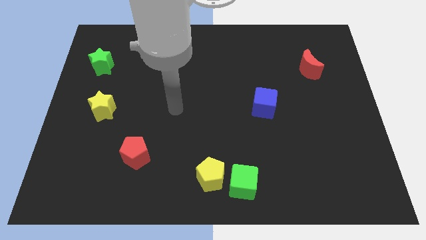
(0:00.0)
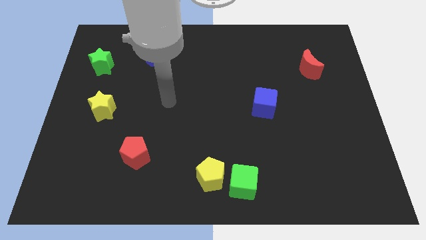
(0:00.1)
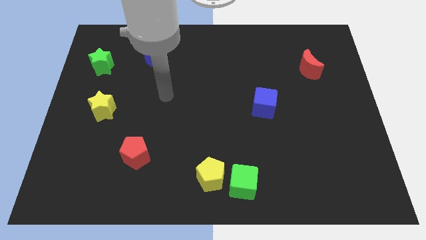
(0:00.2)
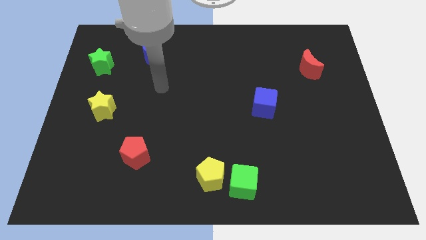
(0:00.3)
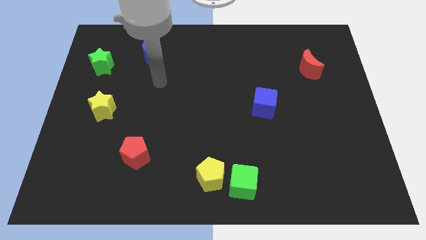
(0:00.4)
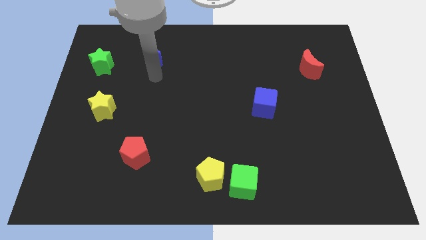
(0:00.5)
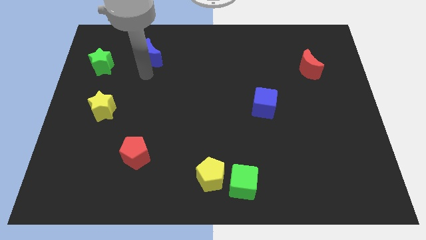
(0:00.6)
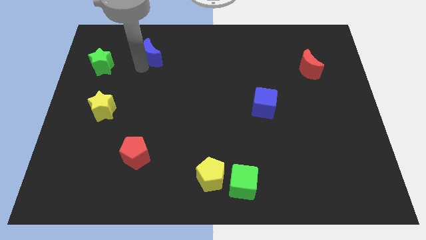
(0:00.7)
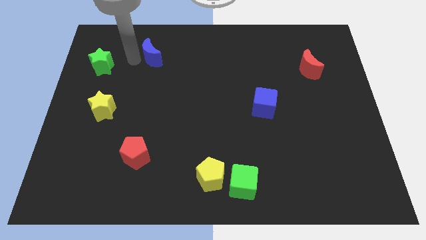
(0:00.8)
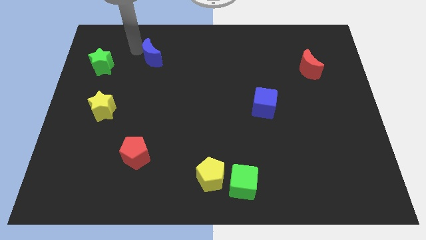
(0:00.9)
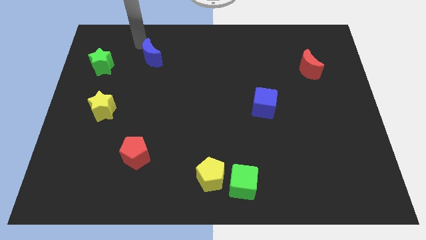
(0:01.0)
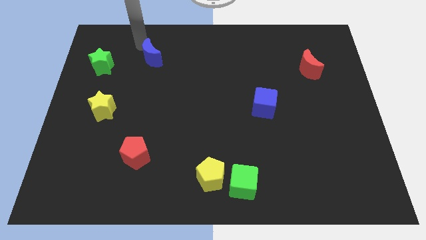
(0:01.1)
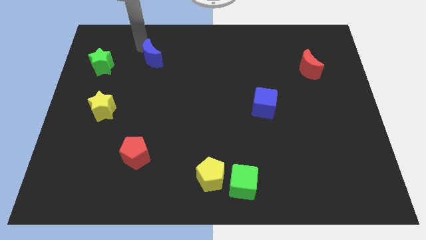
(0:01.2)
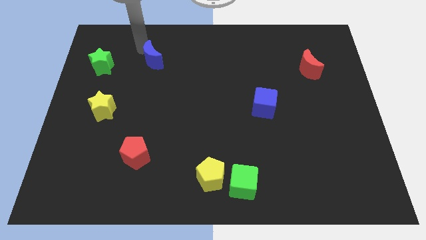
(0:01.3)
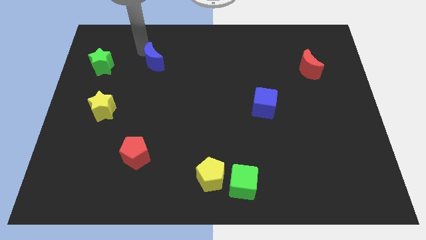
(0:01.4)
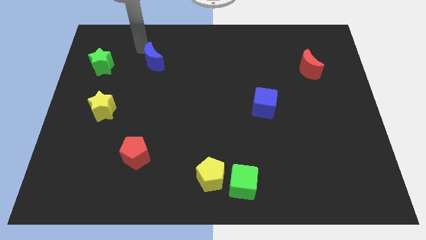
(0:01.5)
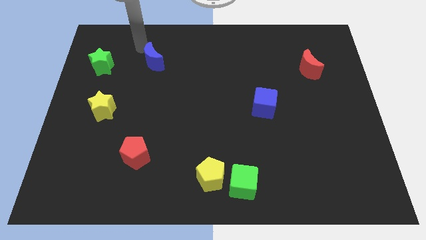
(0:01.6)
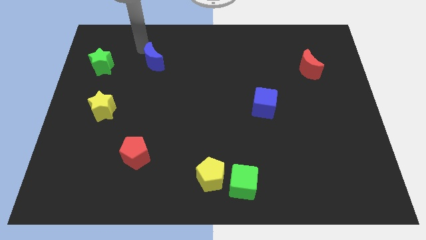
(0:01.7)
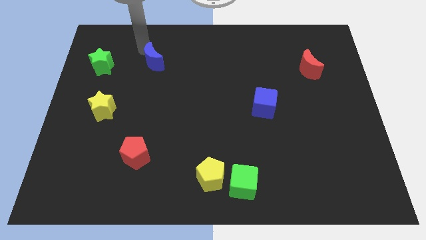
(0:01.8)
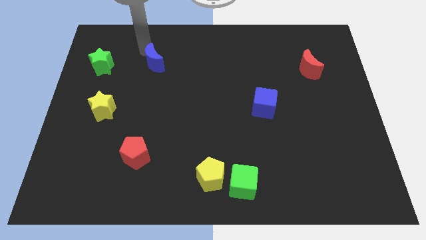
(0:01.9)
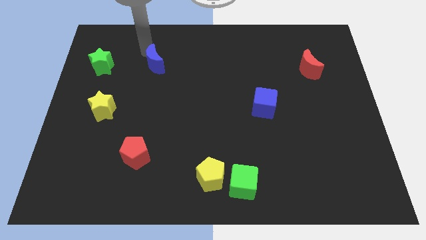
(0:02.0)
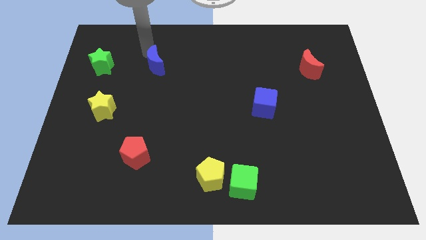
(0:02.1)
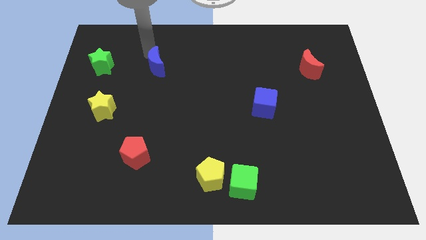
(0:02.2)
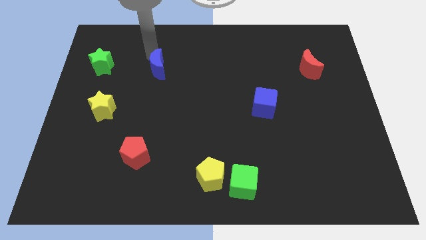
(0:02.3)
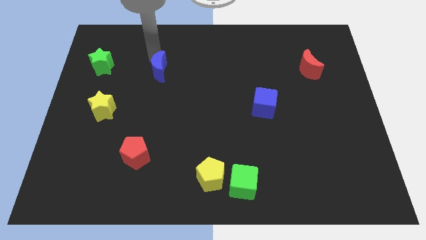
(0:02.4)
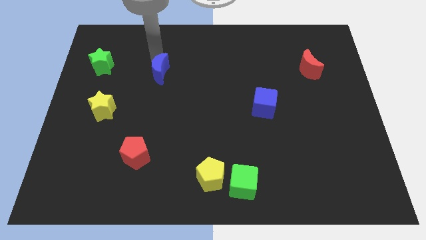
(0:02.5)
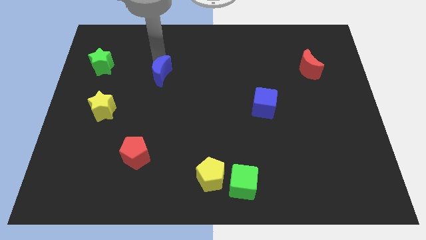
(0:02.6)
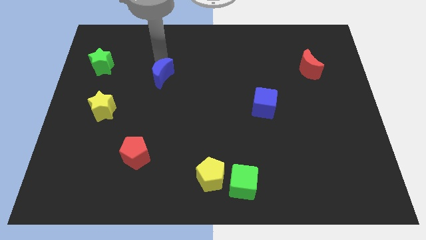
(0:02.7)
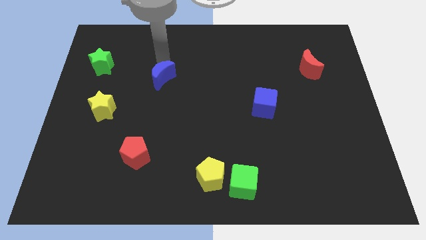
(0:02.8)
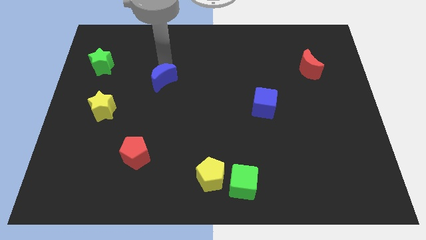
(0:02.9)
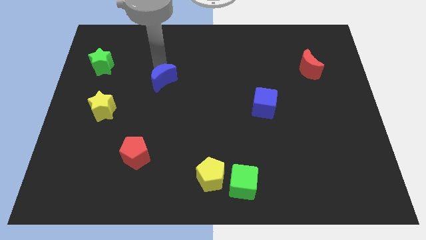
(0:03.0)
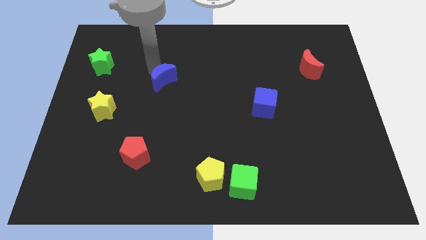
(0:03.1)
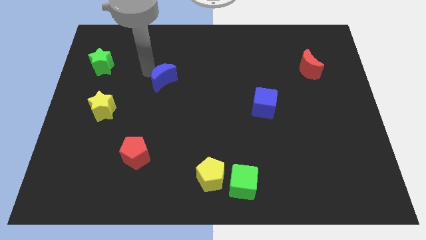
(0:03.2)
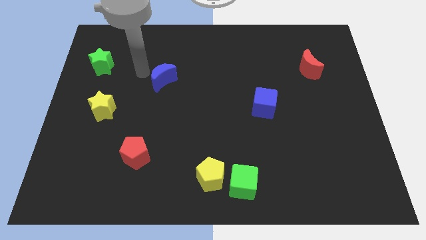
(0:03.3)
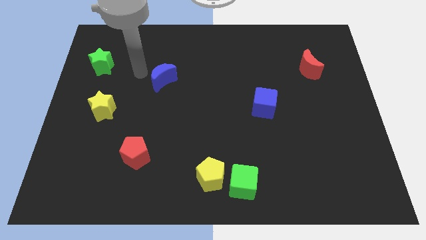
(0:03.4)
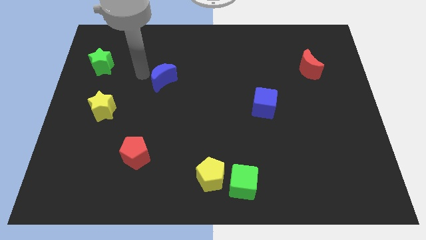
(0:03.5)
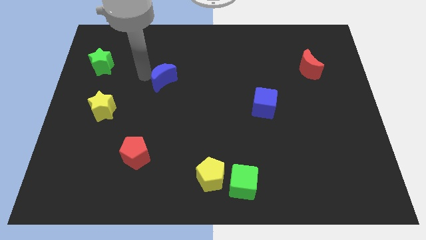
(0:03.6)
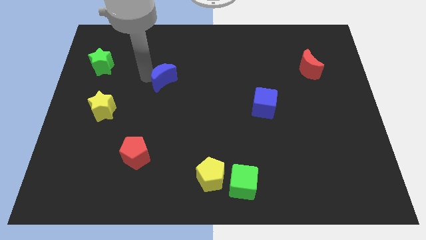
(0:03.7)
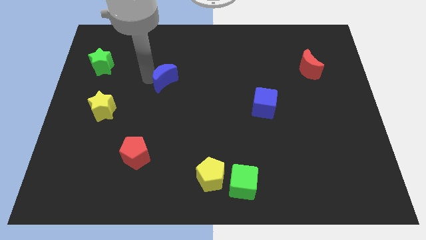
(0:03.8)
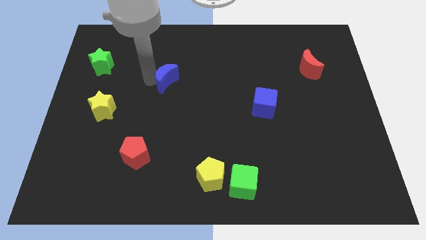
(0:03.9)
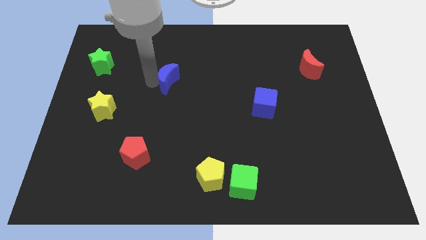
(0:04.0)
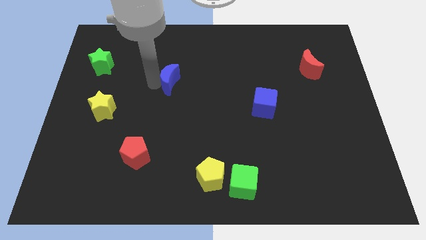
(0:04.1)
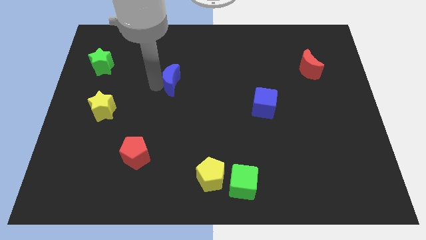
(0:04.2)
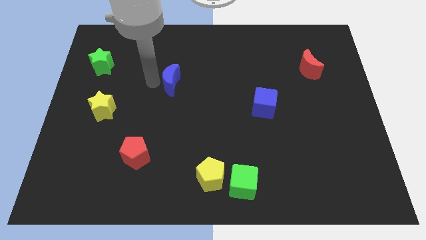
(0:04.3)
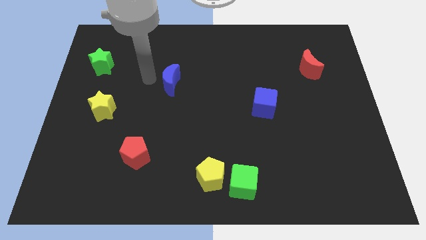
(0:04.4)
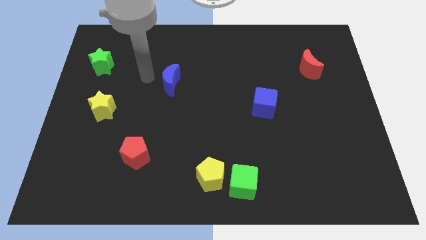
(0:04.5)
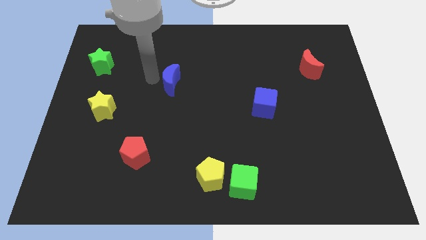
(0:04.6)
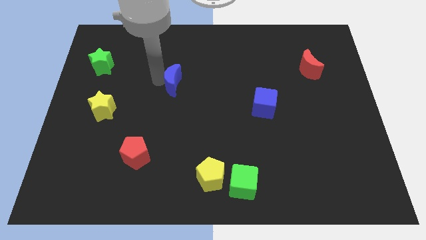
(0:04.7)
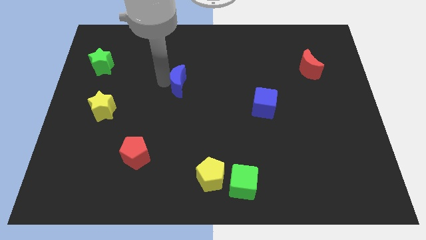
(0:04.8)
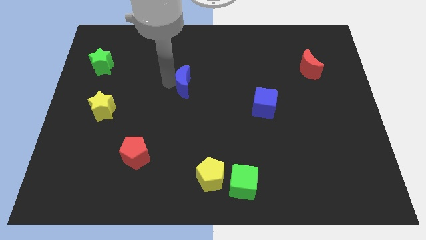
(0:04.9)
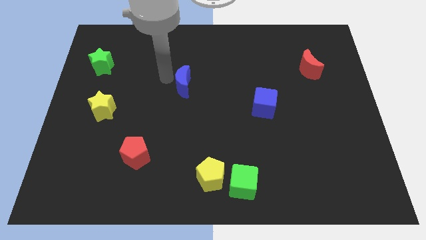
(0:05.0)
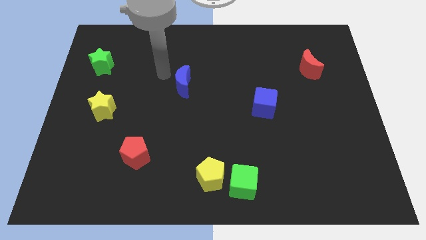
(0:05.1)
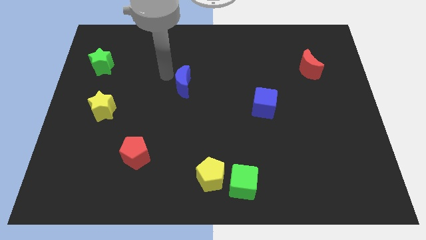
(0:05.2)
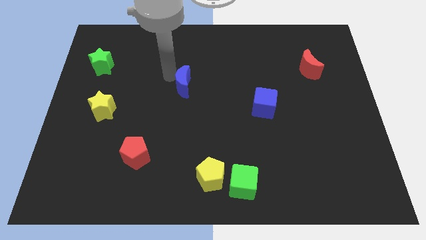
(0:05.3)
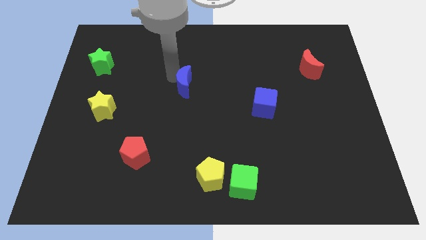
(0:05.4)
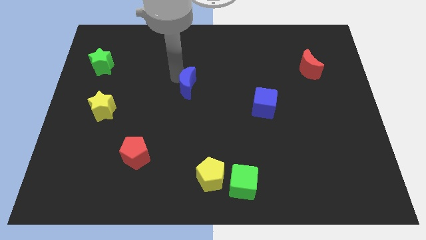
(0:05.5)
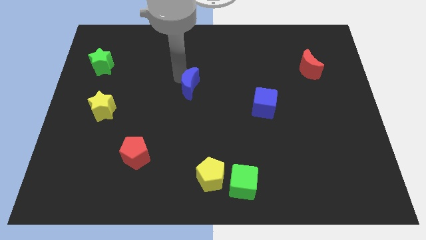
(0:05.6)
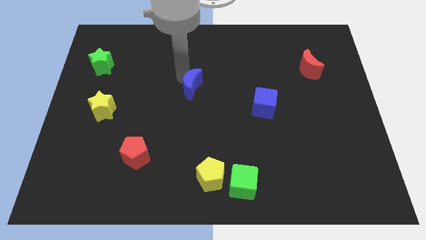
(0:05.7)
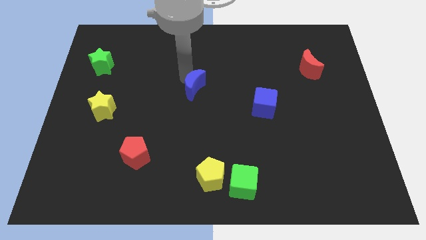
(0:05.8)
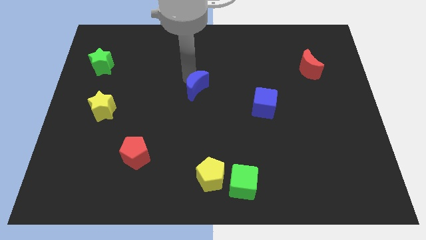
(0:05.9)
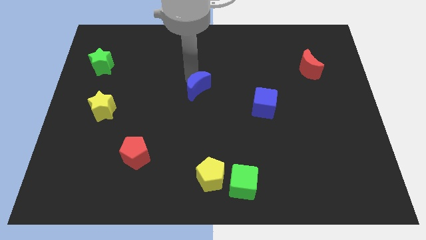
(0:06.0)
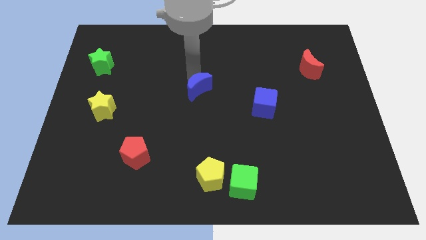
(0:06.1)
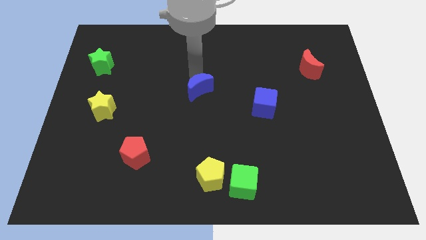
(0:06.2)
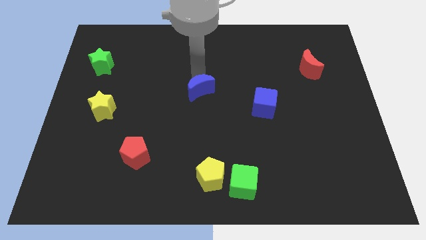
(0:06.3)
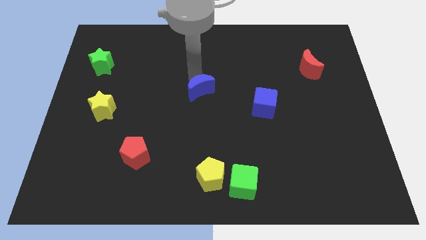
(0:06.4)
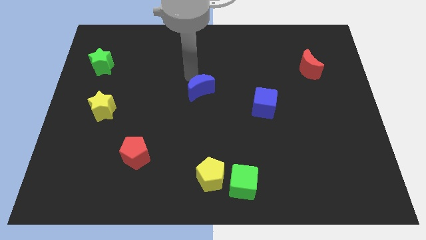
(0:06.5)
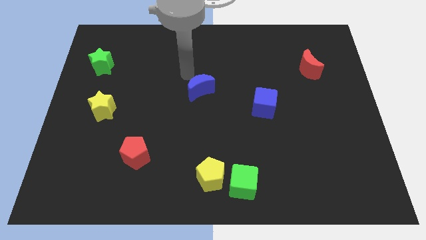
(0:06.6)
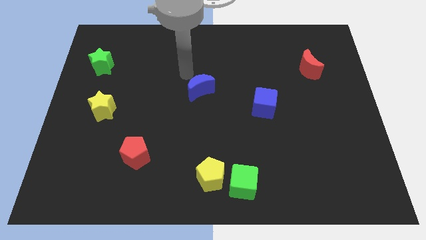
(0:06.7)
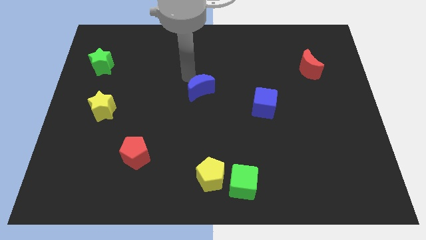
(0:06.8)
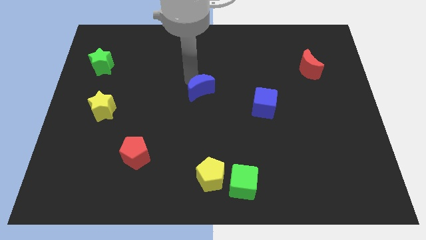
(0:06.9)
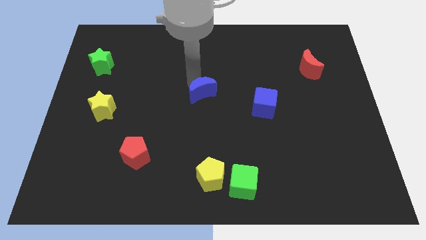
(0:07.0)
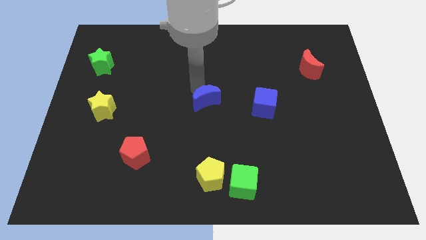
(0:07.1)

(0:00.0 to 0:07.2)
push the blue moon diagonally downwards and right

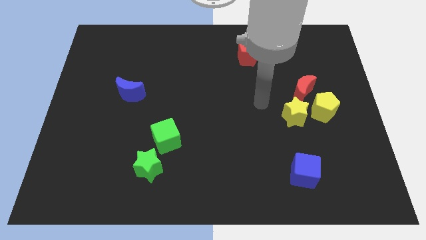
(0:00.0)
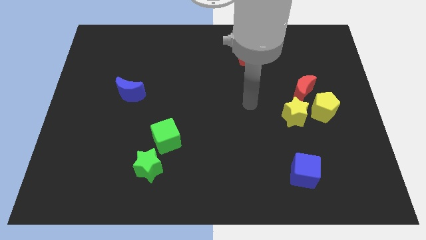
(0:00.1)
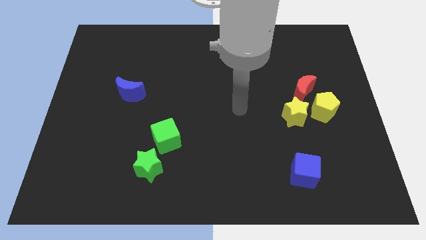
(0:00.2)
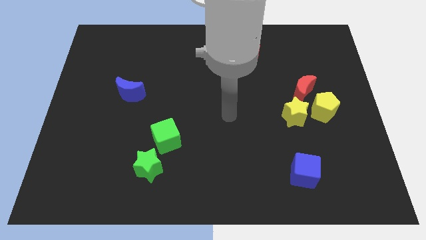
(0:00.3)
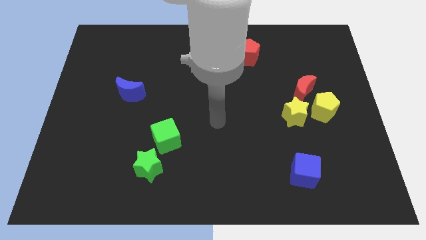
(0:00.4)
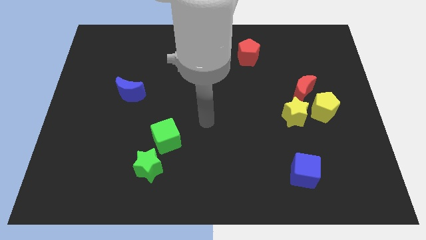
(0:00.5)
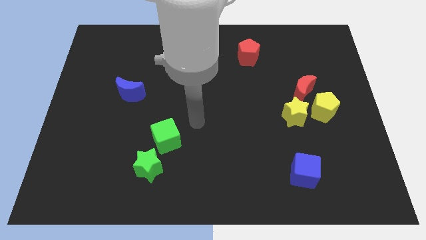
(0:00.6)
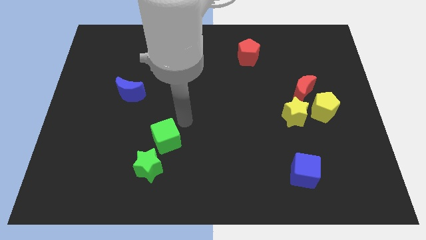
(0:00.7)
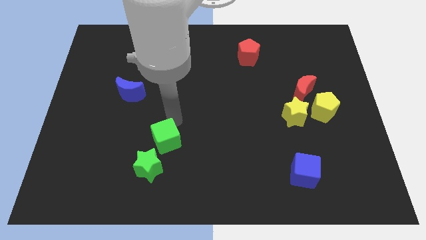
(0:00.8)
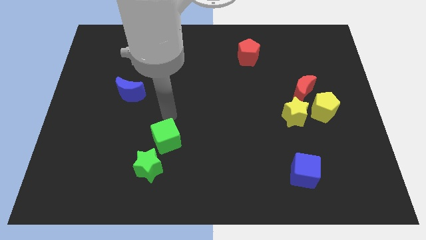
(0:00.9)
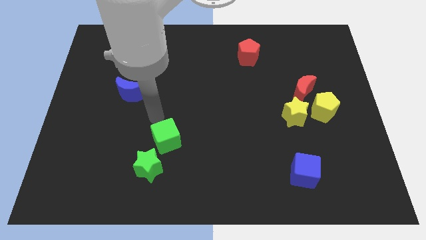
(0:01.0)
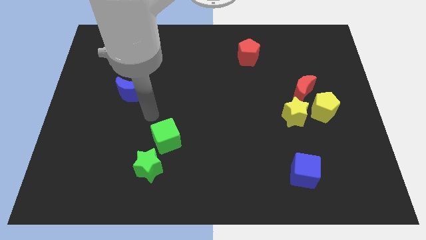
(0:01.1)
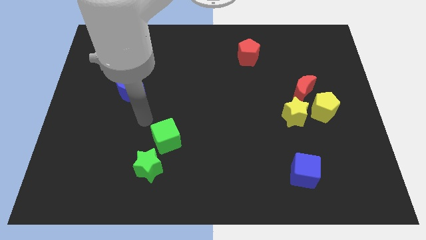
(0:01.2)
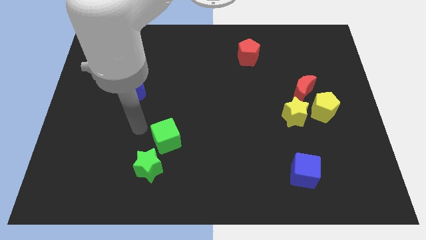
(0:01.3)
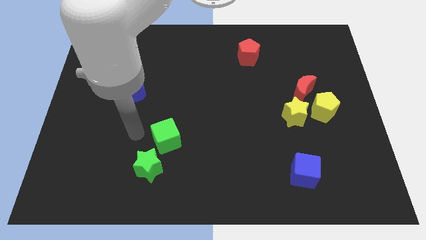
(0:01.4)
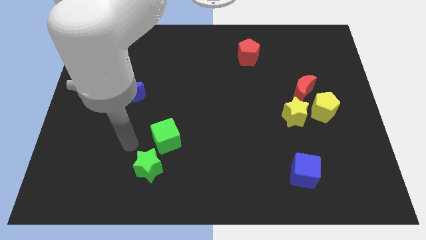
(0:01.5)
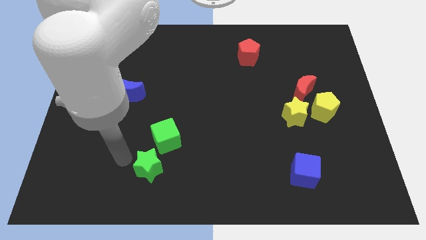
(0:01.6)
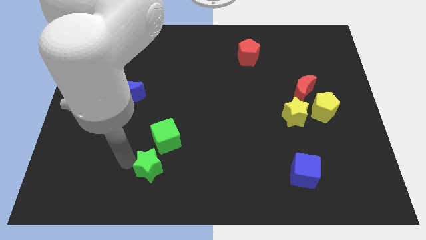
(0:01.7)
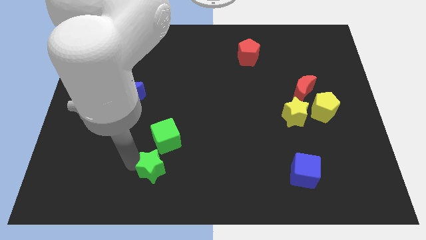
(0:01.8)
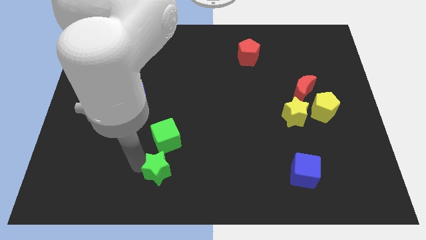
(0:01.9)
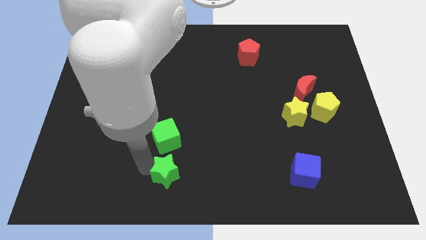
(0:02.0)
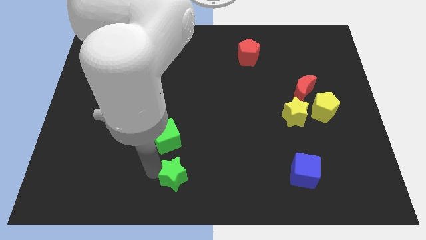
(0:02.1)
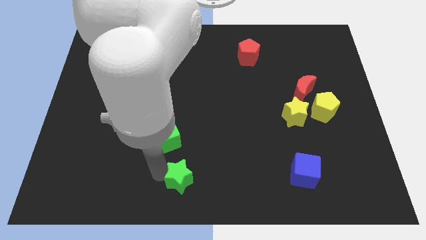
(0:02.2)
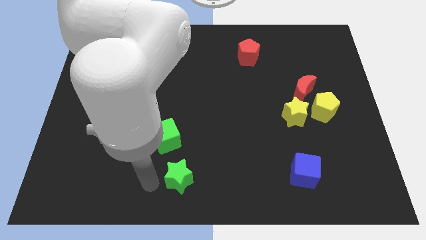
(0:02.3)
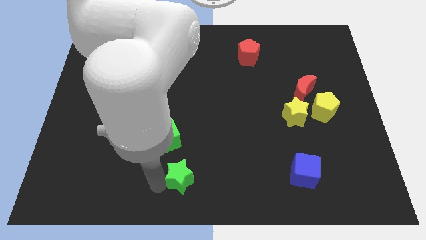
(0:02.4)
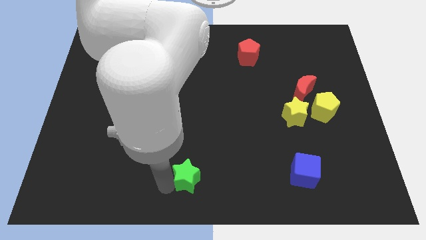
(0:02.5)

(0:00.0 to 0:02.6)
slightly slide the green star to the right
